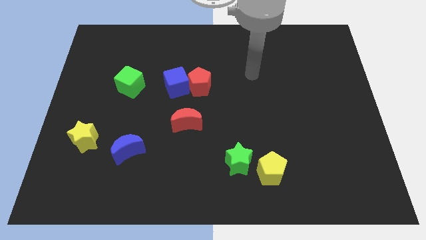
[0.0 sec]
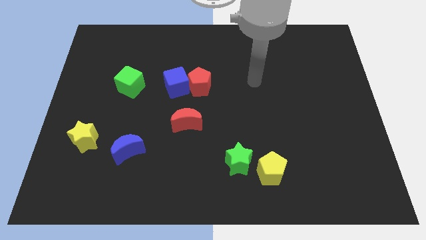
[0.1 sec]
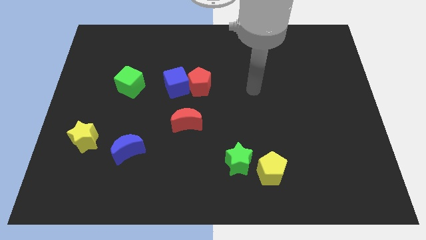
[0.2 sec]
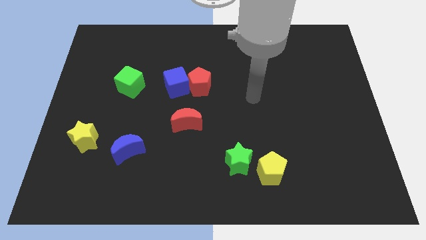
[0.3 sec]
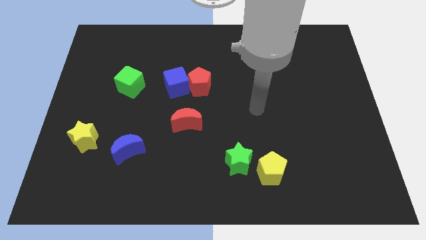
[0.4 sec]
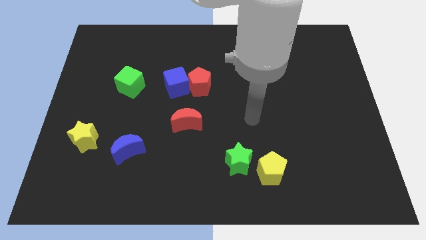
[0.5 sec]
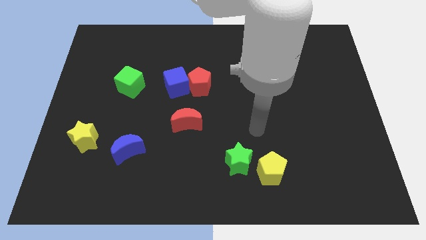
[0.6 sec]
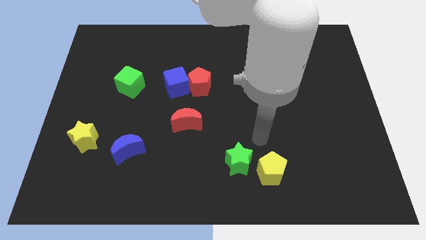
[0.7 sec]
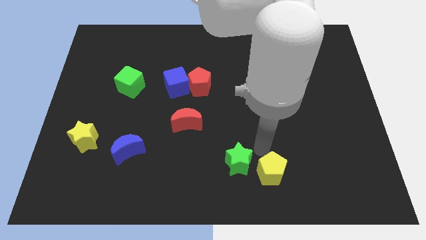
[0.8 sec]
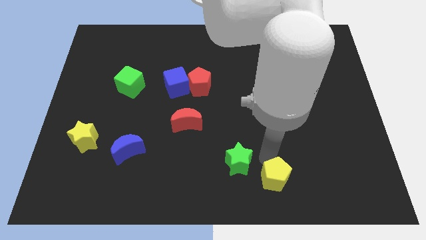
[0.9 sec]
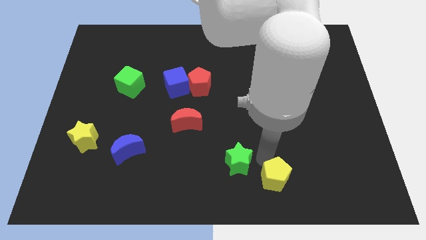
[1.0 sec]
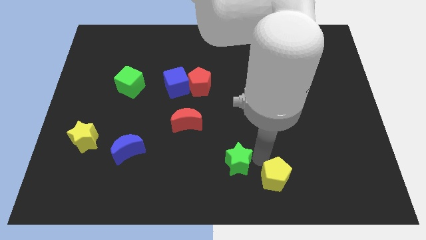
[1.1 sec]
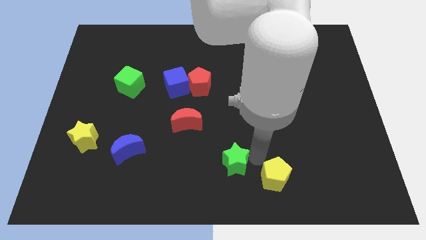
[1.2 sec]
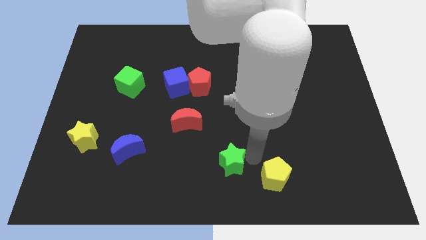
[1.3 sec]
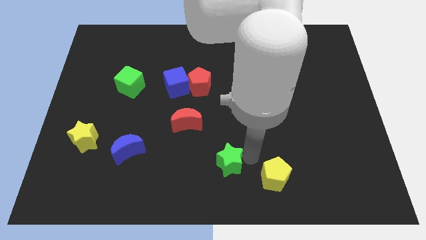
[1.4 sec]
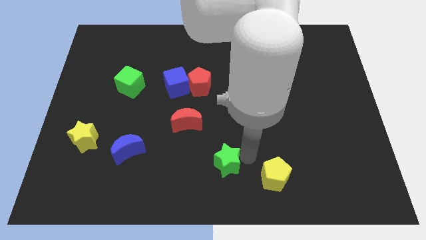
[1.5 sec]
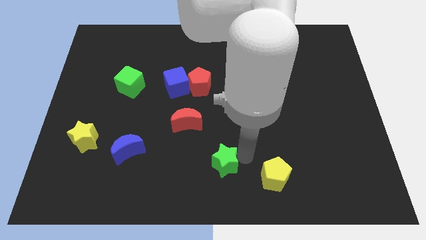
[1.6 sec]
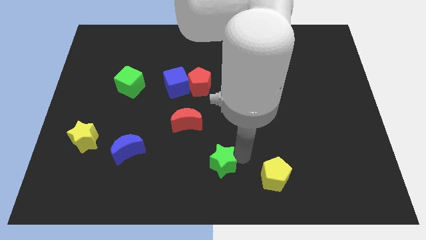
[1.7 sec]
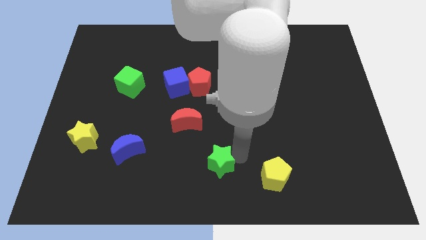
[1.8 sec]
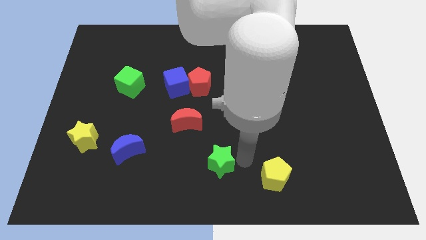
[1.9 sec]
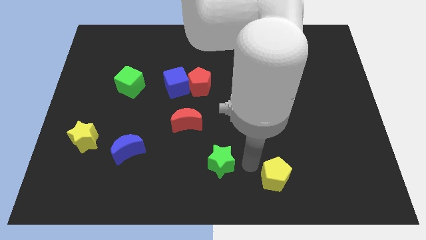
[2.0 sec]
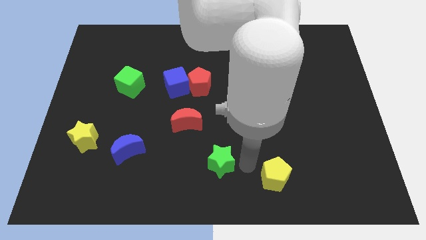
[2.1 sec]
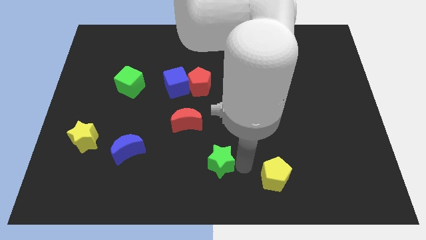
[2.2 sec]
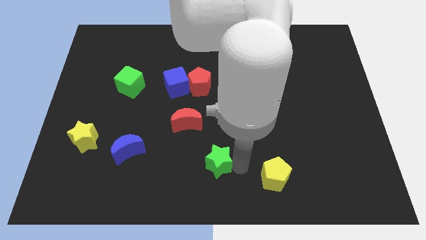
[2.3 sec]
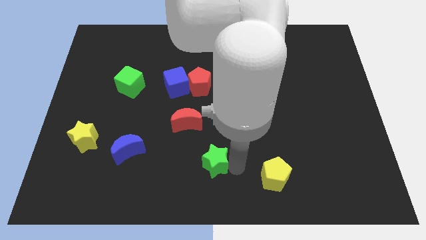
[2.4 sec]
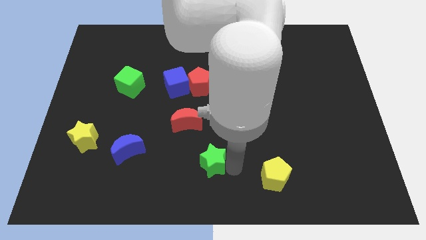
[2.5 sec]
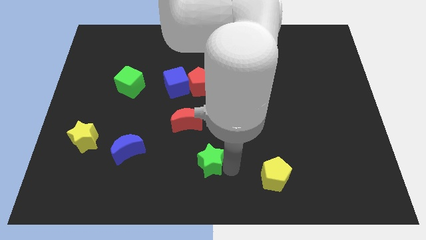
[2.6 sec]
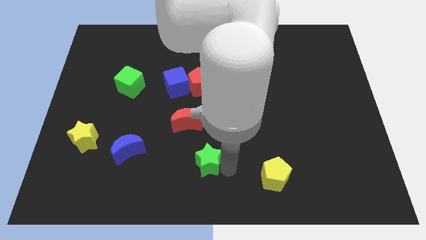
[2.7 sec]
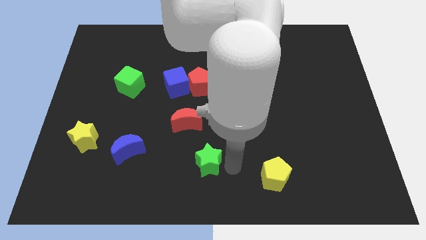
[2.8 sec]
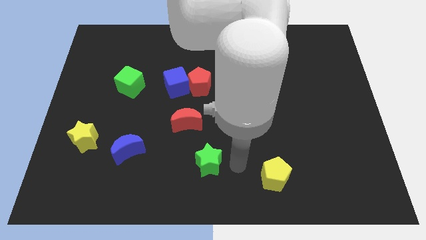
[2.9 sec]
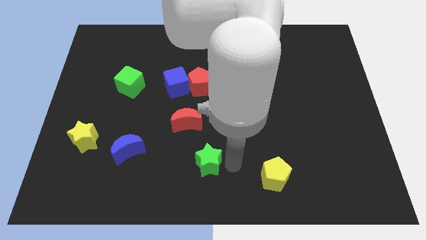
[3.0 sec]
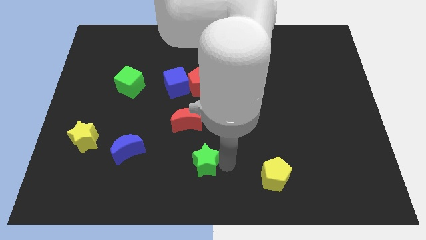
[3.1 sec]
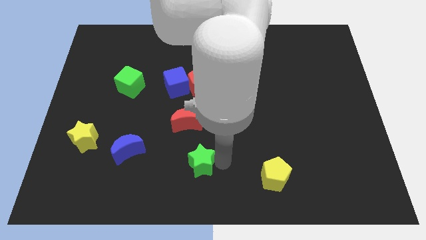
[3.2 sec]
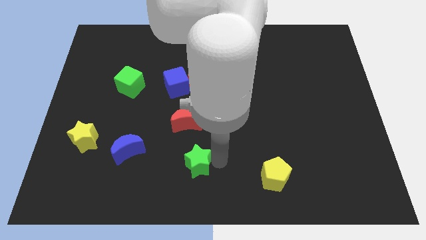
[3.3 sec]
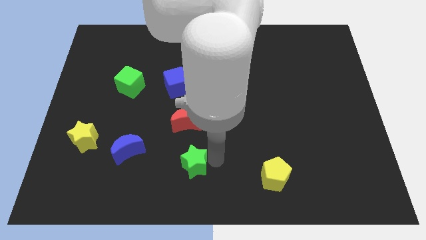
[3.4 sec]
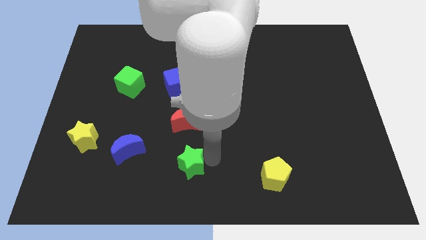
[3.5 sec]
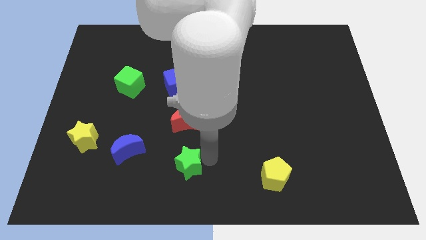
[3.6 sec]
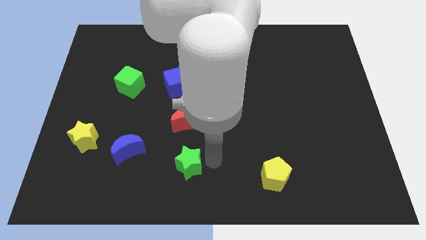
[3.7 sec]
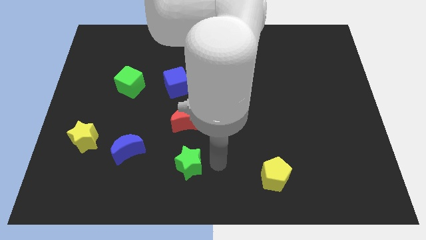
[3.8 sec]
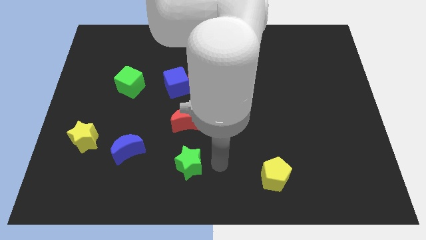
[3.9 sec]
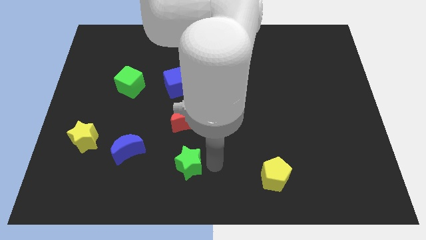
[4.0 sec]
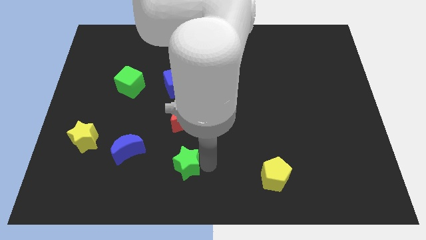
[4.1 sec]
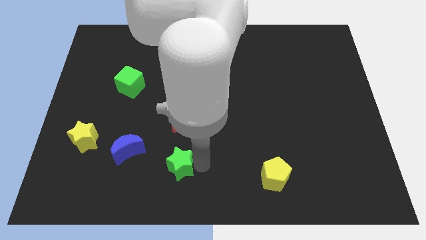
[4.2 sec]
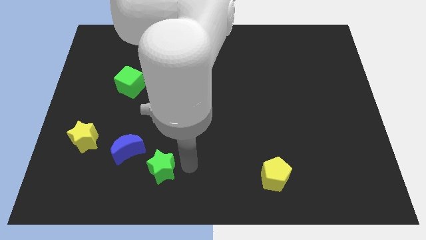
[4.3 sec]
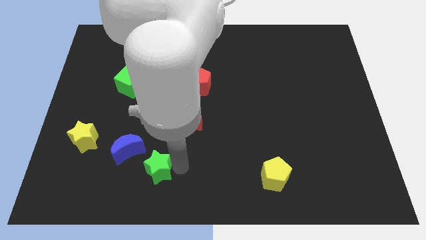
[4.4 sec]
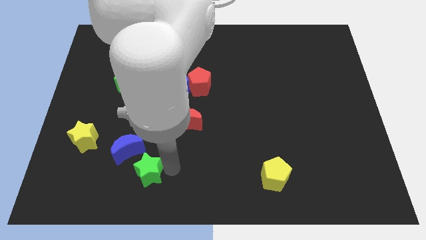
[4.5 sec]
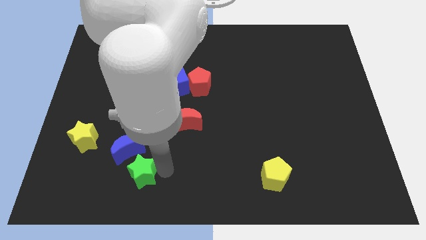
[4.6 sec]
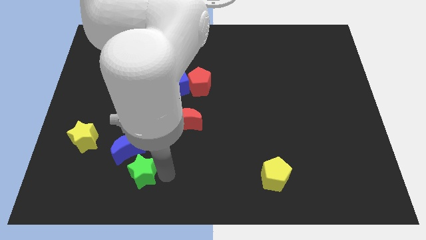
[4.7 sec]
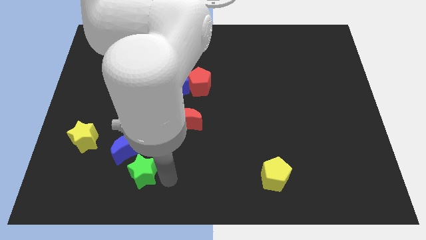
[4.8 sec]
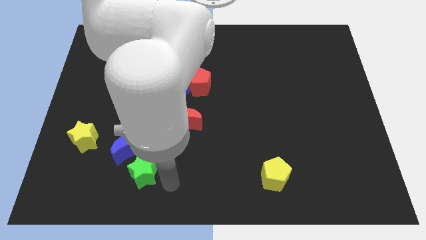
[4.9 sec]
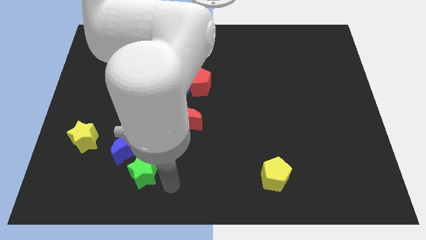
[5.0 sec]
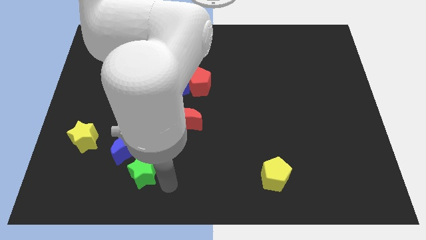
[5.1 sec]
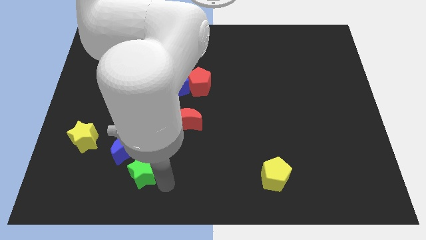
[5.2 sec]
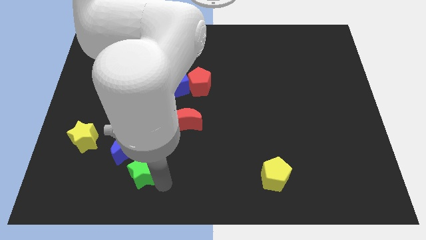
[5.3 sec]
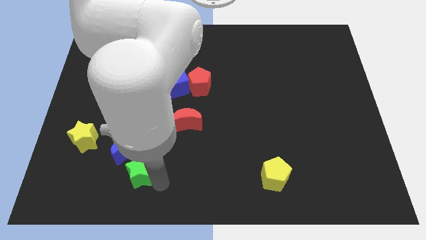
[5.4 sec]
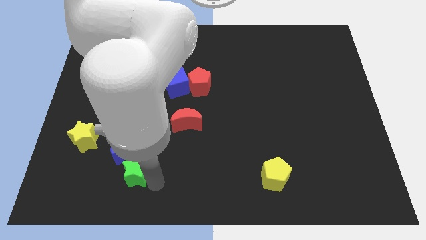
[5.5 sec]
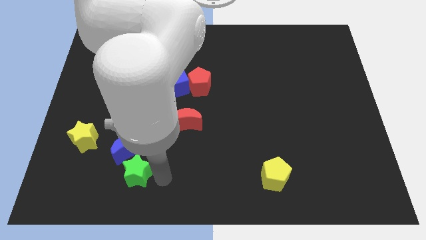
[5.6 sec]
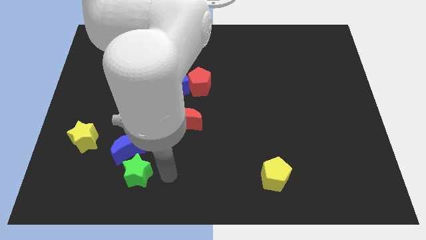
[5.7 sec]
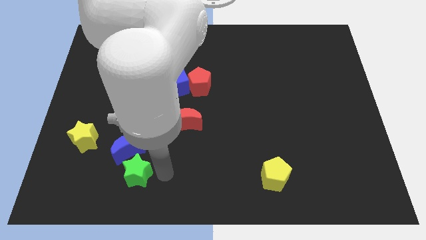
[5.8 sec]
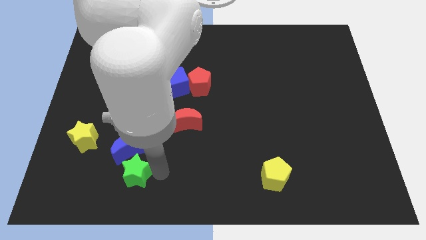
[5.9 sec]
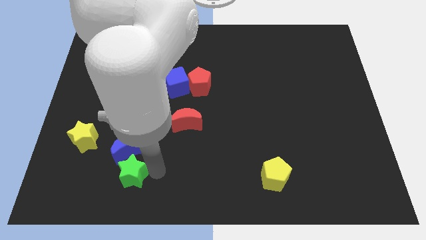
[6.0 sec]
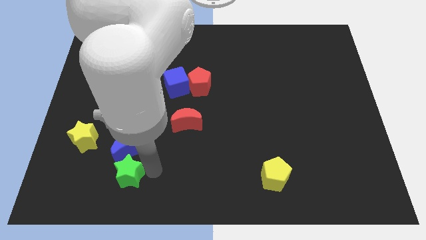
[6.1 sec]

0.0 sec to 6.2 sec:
push the green star to the bottom left side of the blue moon

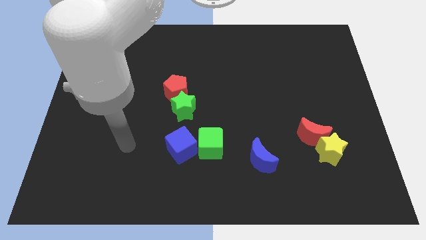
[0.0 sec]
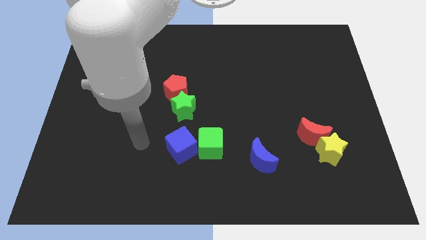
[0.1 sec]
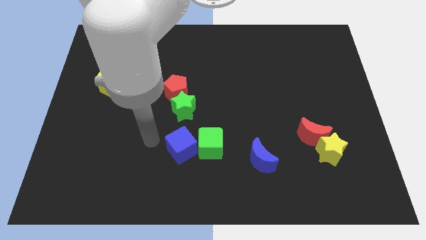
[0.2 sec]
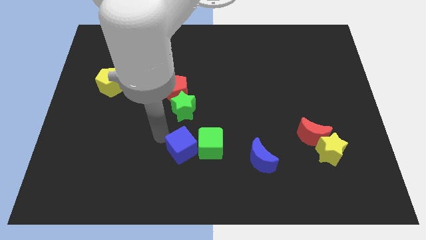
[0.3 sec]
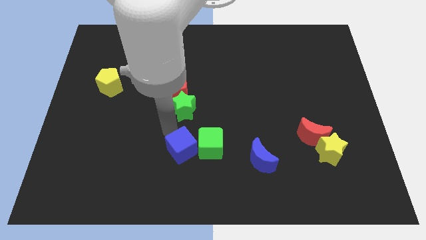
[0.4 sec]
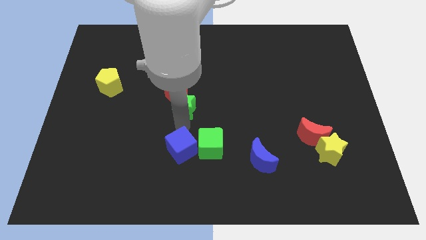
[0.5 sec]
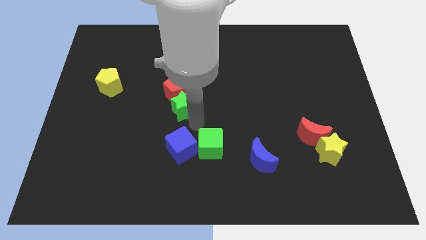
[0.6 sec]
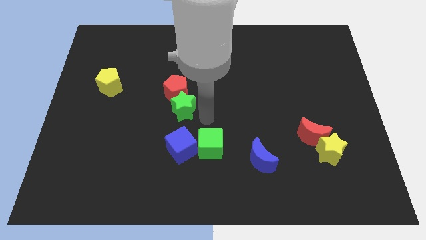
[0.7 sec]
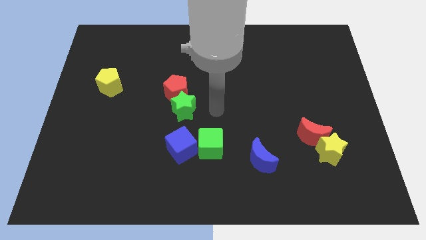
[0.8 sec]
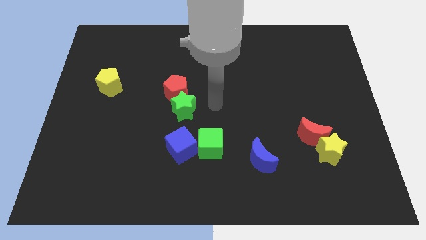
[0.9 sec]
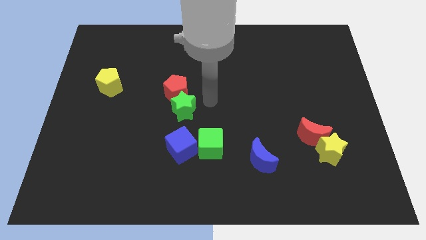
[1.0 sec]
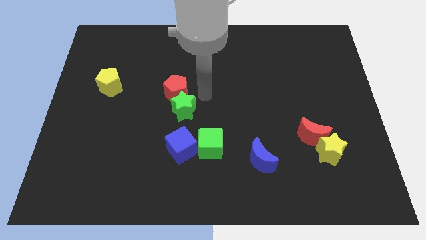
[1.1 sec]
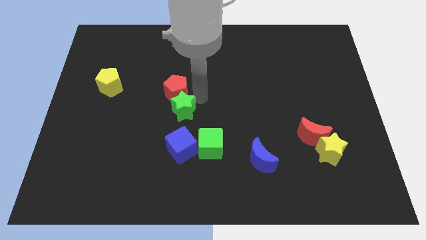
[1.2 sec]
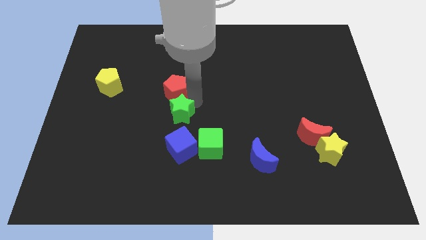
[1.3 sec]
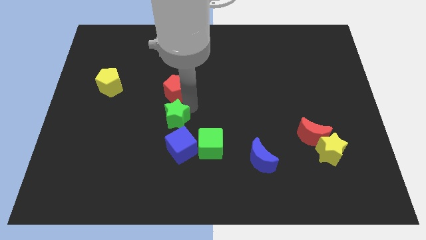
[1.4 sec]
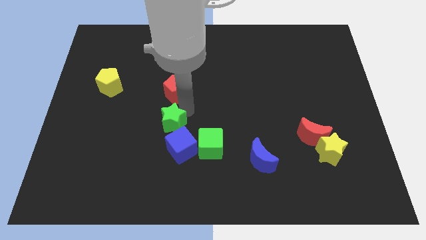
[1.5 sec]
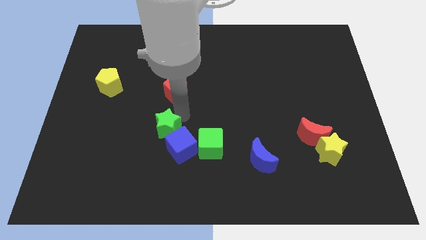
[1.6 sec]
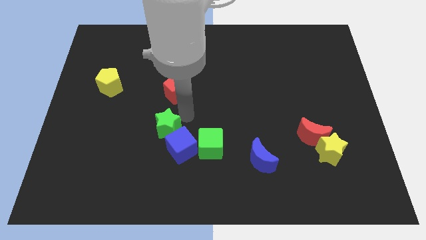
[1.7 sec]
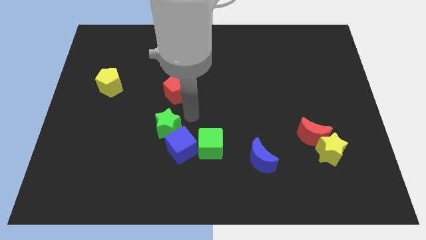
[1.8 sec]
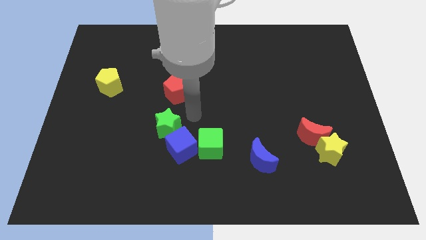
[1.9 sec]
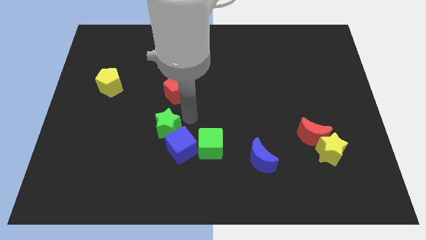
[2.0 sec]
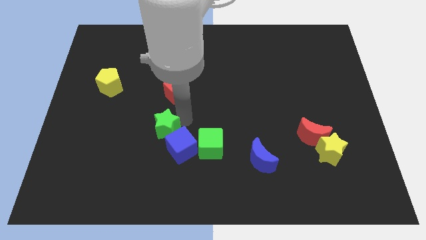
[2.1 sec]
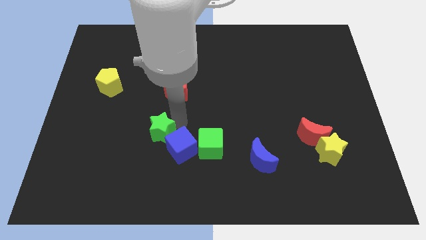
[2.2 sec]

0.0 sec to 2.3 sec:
push the green star left of the blue cube
